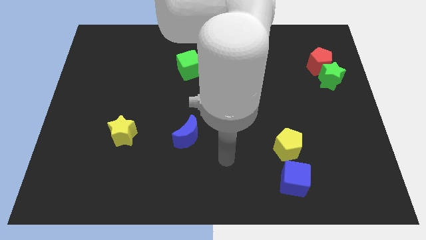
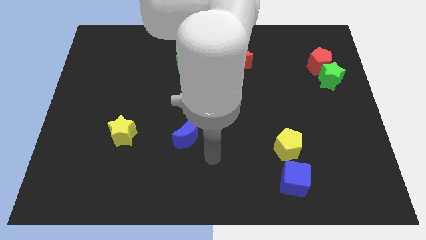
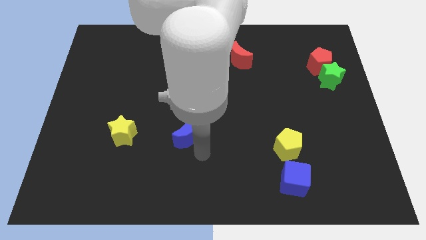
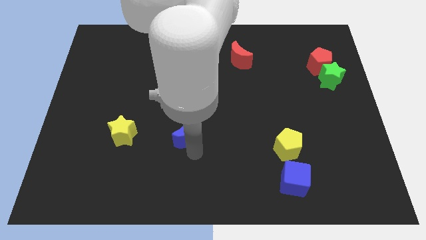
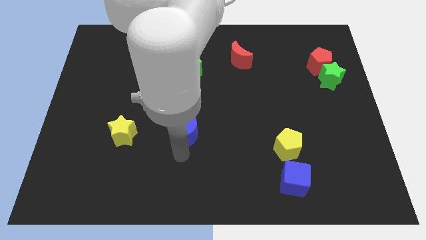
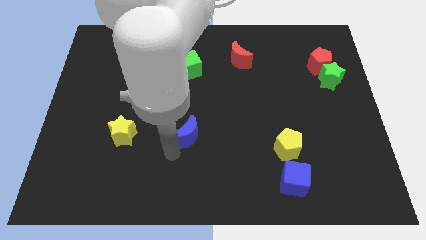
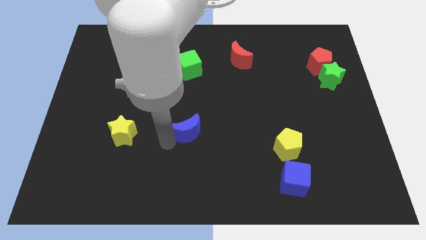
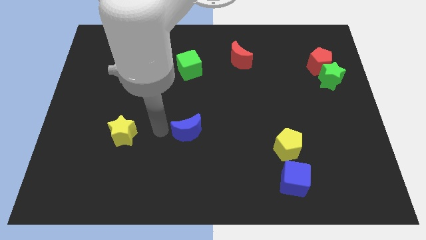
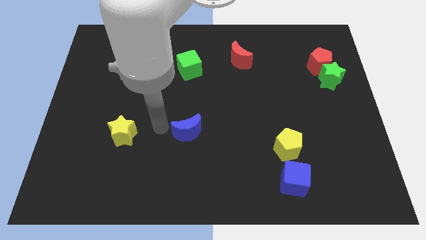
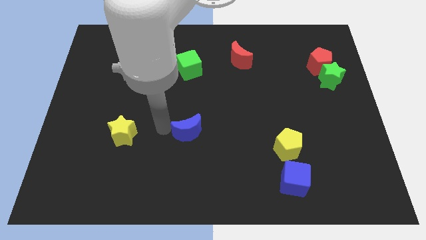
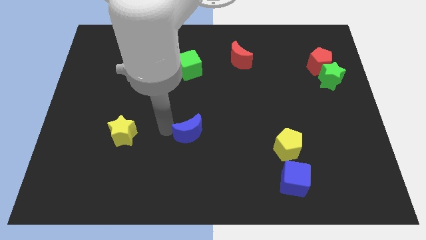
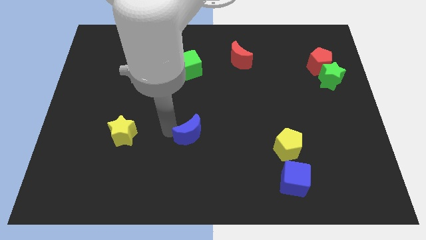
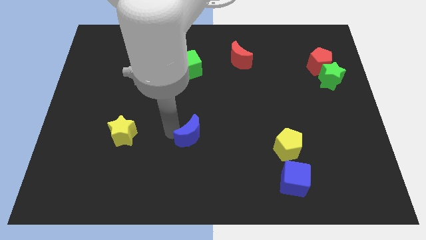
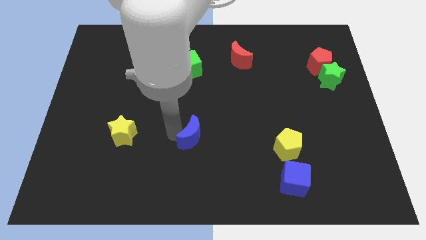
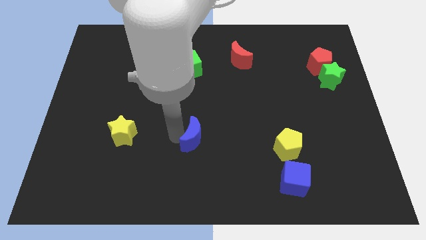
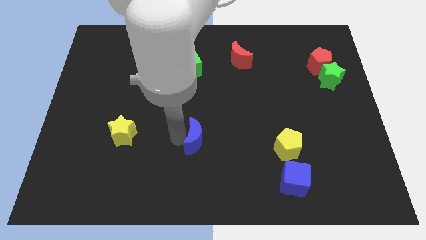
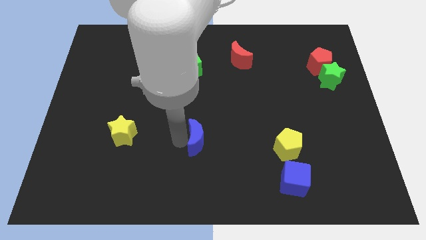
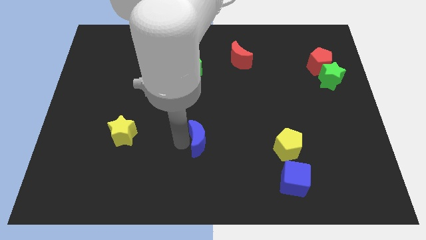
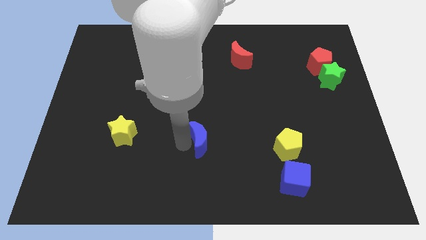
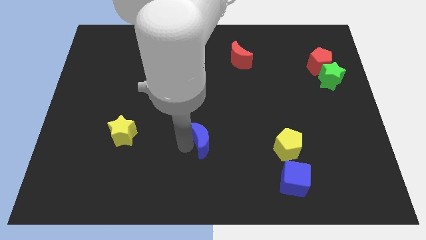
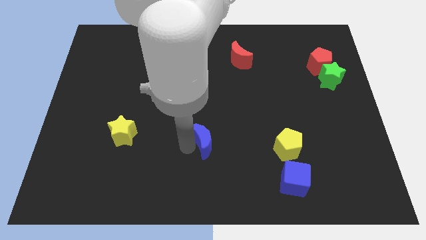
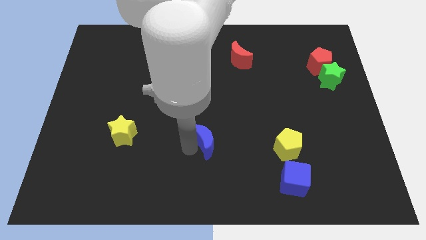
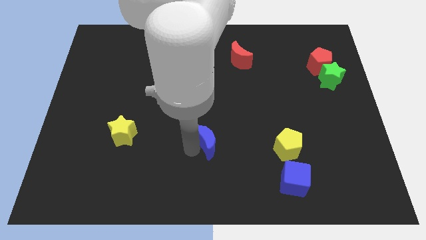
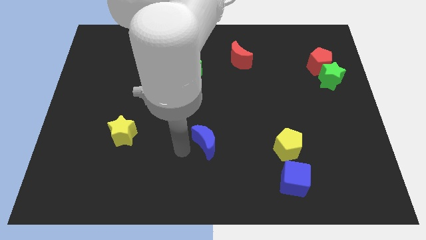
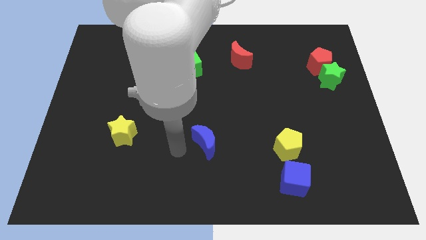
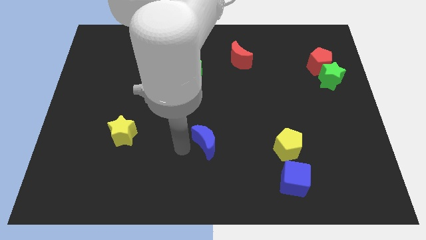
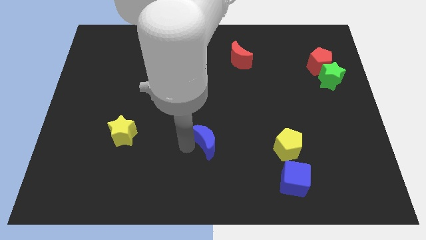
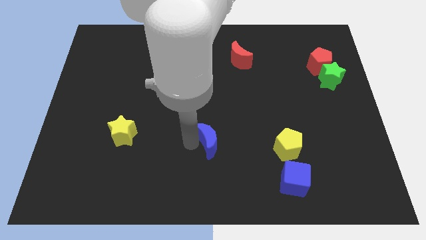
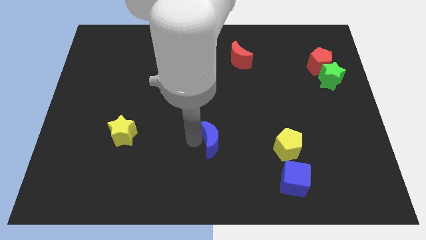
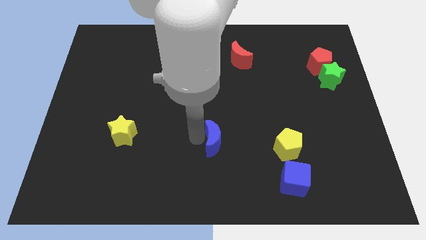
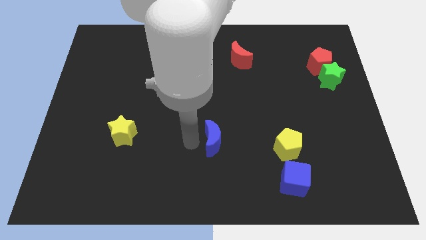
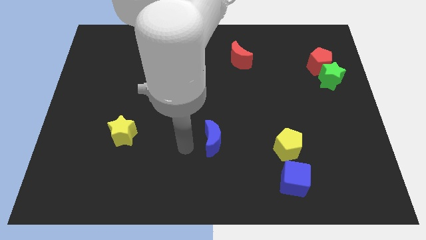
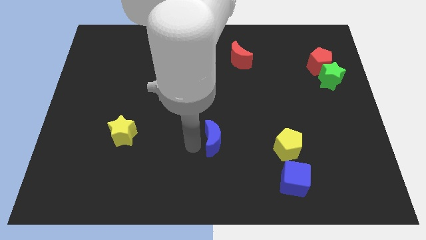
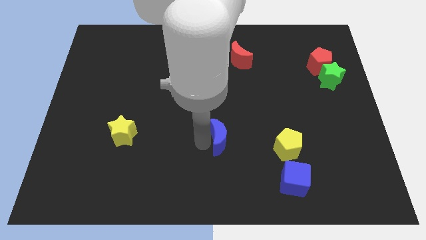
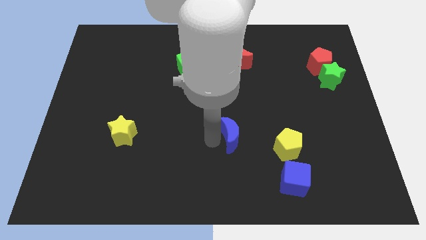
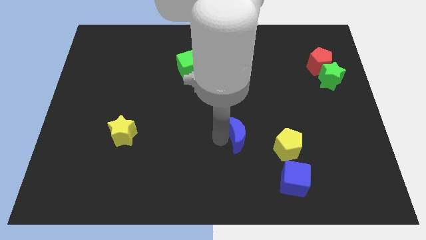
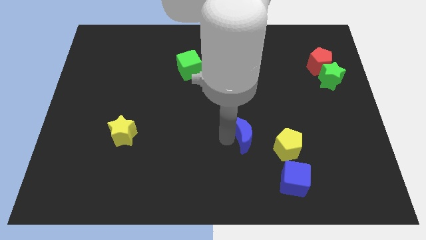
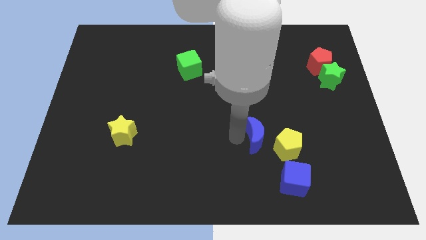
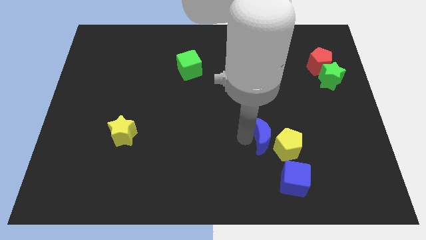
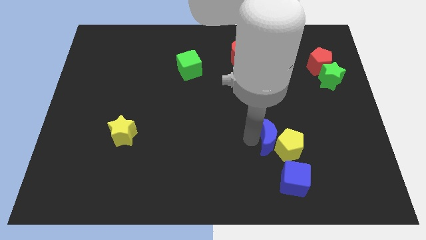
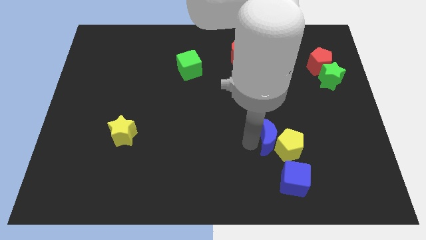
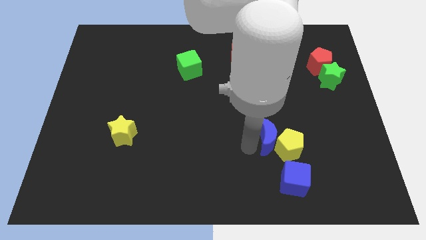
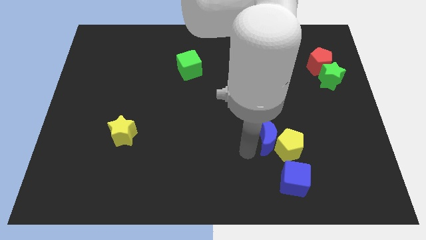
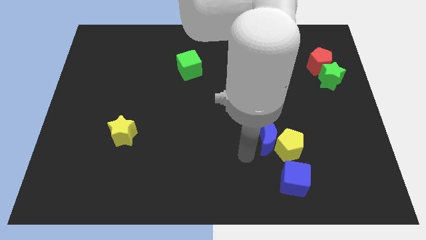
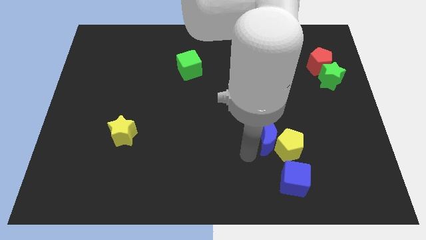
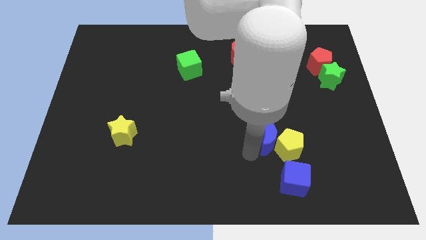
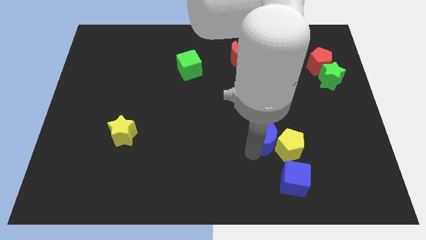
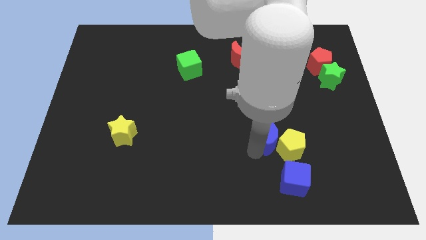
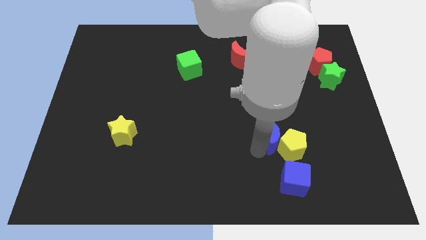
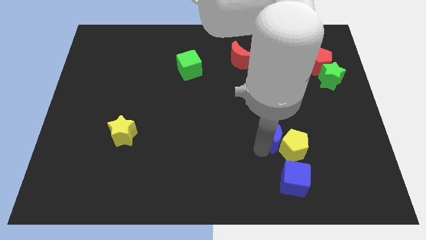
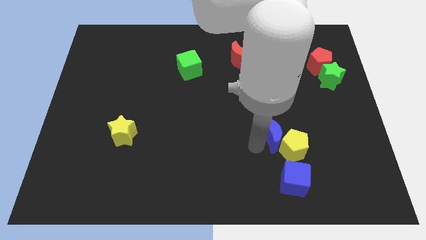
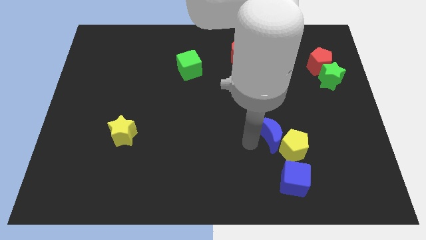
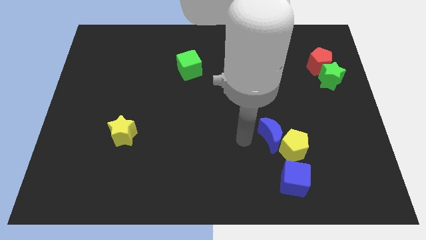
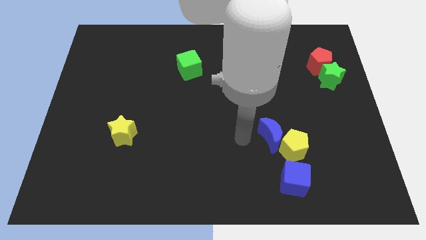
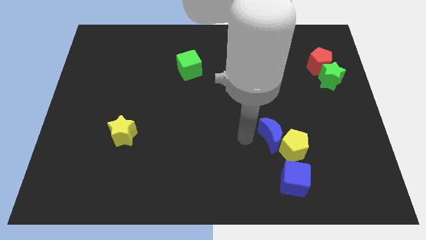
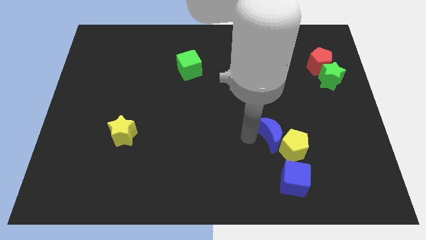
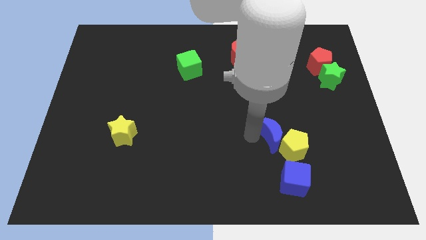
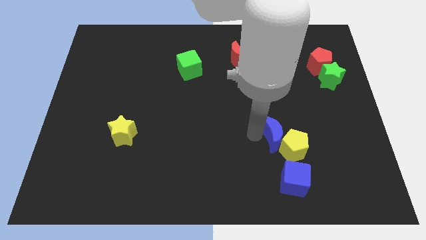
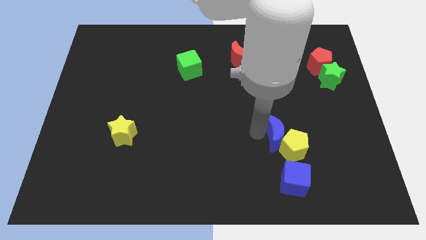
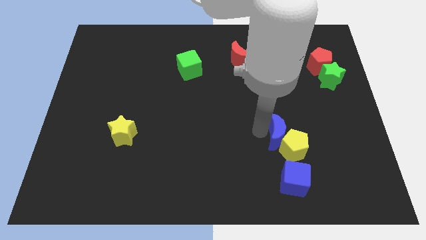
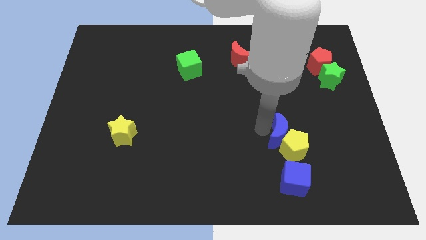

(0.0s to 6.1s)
push the blue moon right

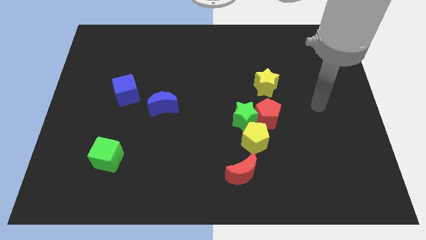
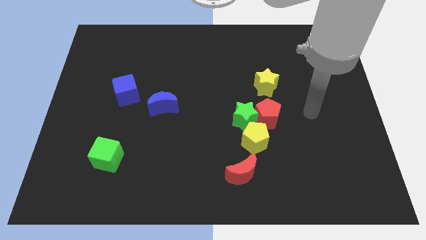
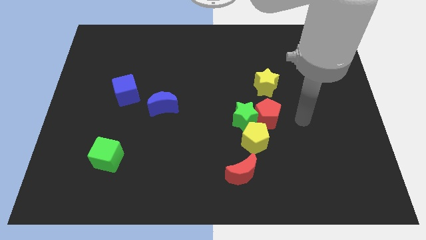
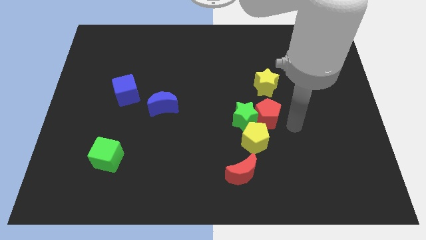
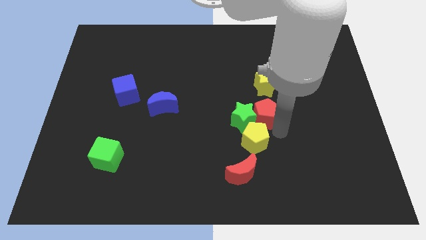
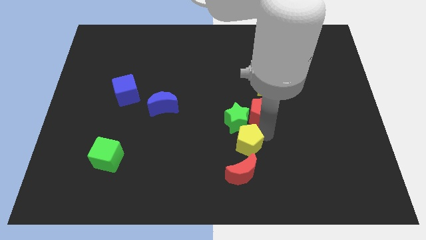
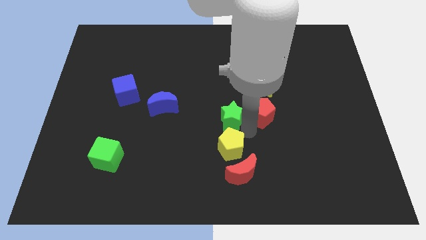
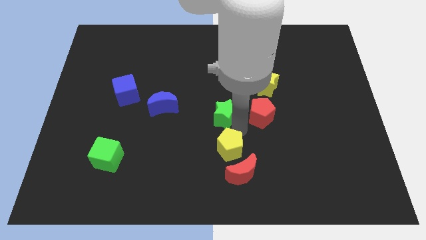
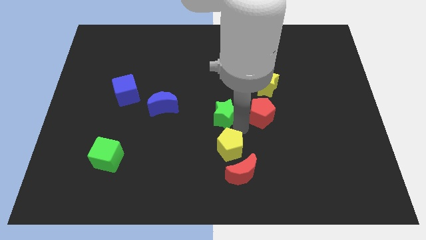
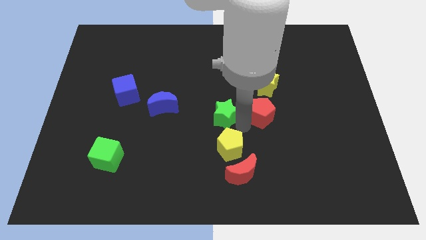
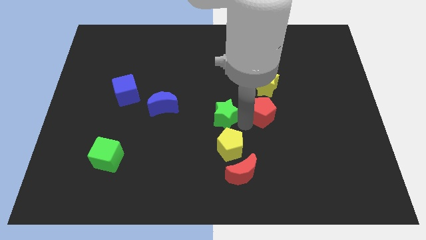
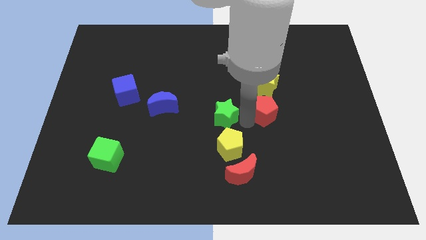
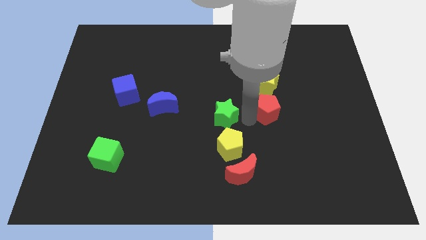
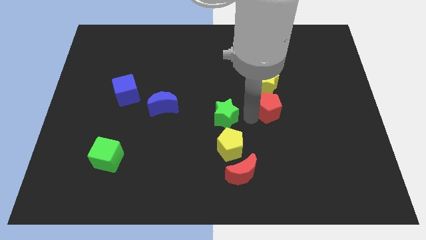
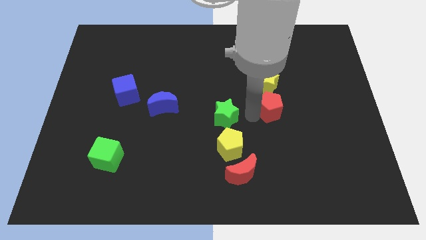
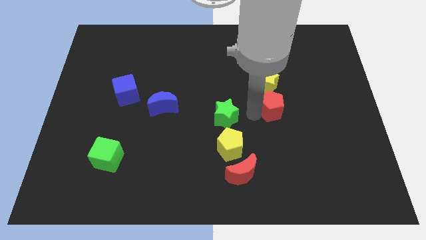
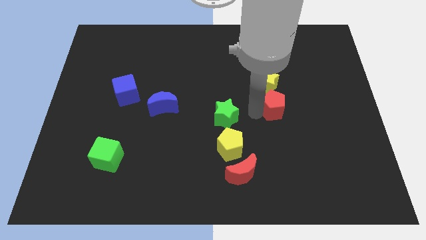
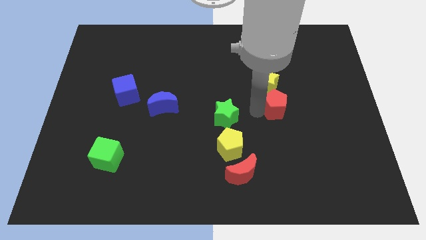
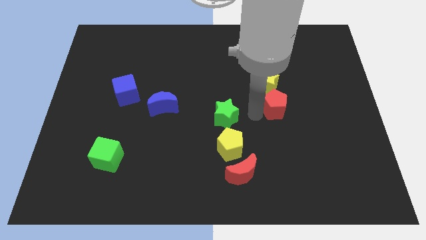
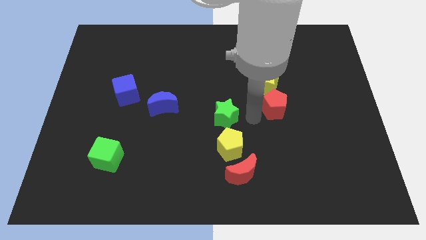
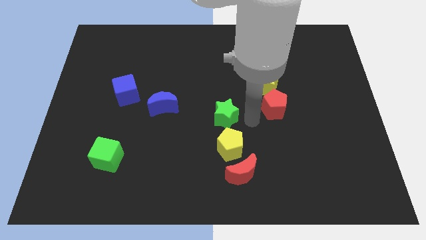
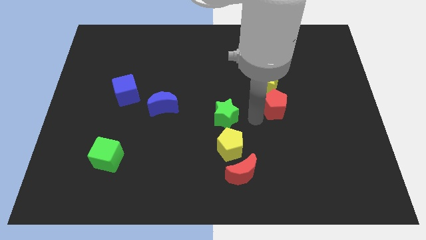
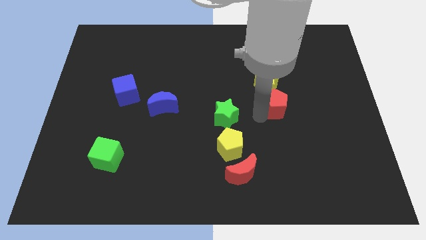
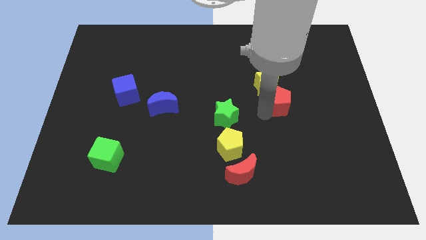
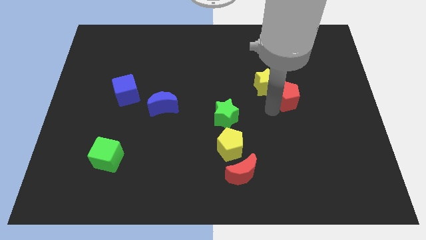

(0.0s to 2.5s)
slightly push the red pentagon up and then right
